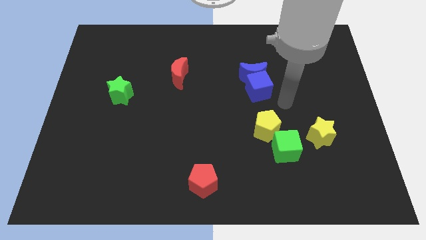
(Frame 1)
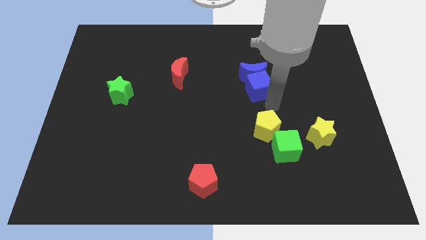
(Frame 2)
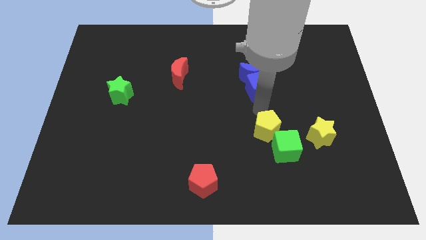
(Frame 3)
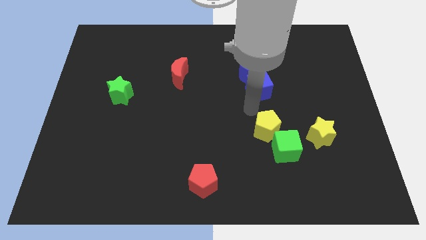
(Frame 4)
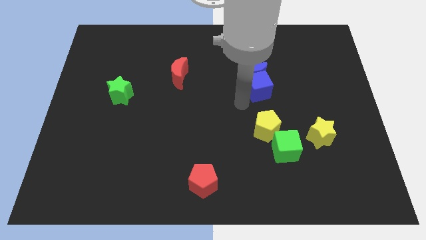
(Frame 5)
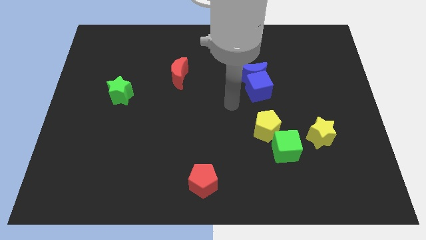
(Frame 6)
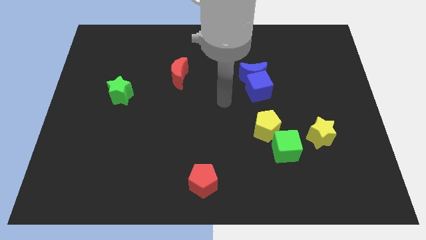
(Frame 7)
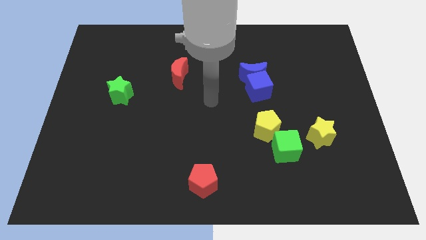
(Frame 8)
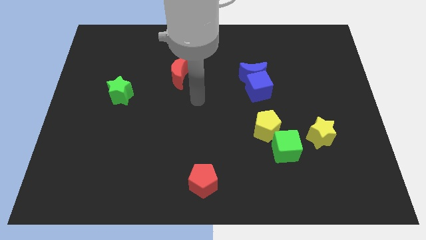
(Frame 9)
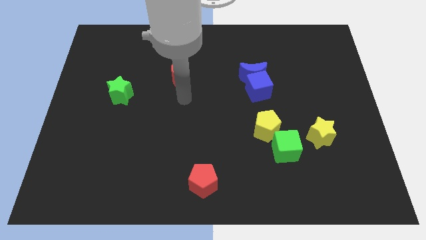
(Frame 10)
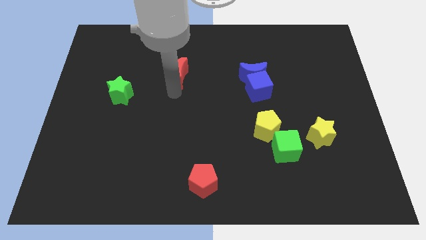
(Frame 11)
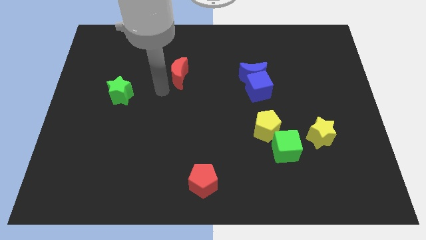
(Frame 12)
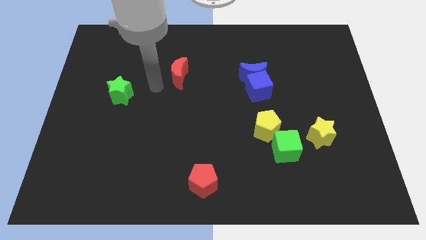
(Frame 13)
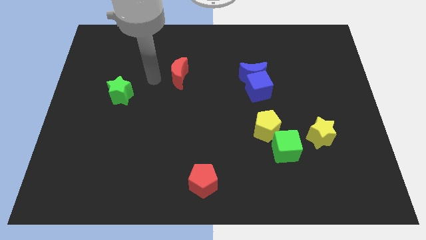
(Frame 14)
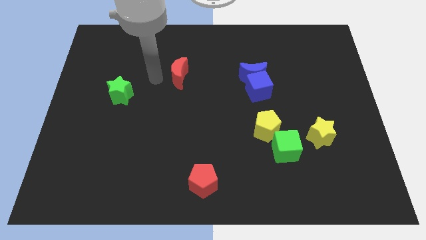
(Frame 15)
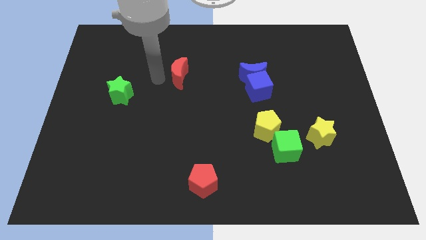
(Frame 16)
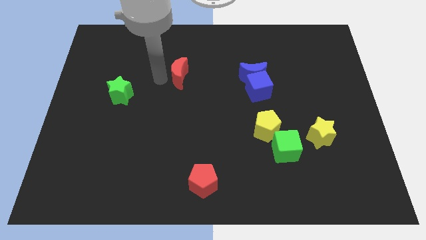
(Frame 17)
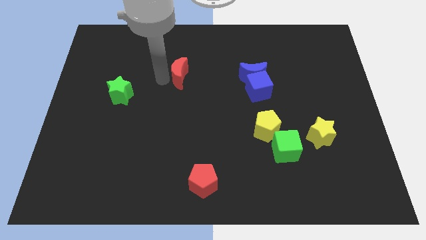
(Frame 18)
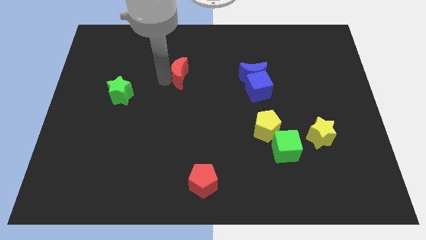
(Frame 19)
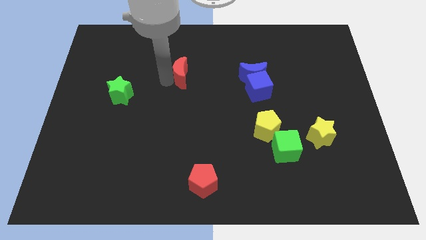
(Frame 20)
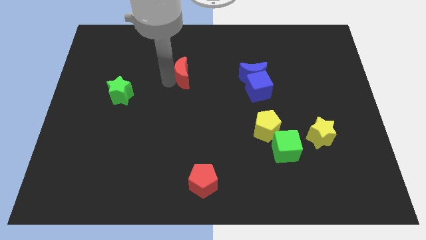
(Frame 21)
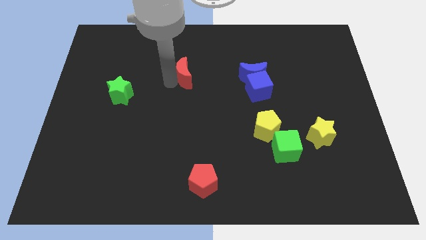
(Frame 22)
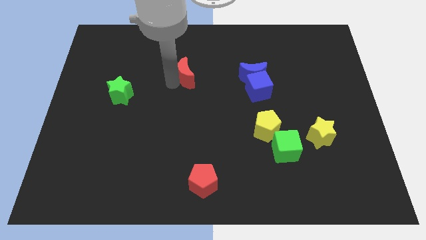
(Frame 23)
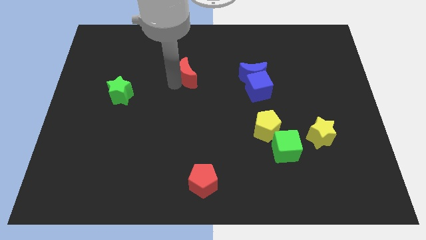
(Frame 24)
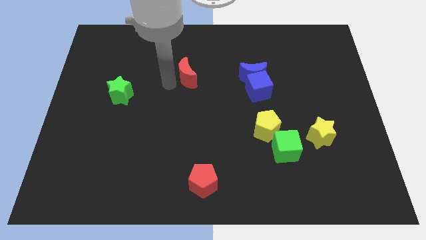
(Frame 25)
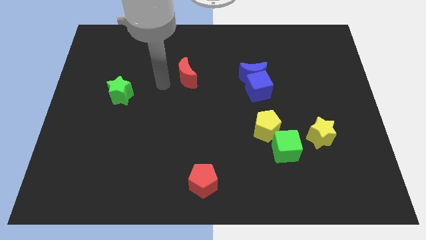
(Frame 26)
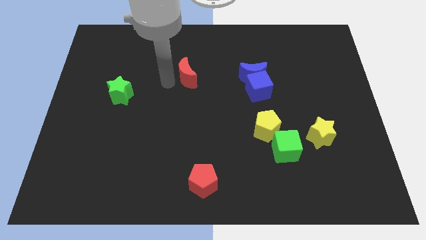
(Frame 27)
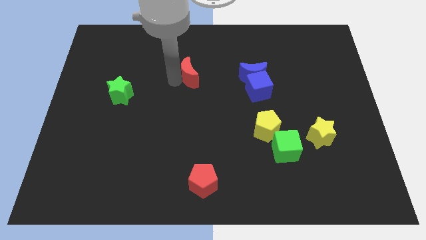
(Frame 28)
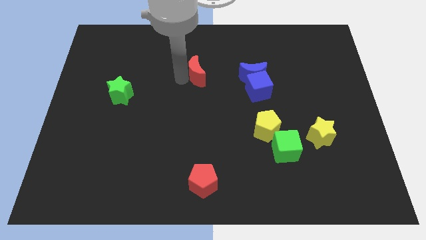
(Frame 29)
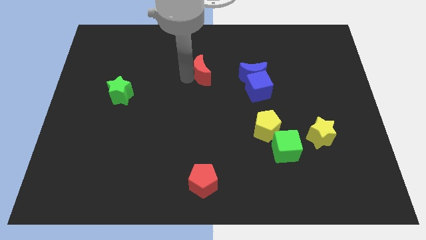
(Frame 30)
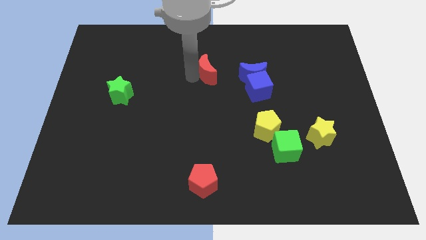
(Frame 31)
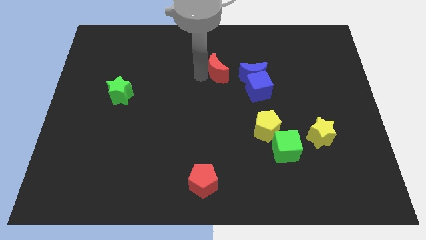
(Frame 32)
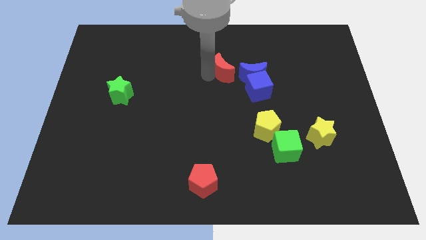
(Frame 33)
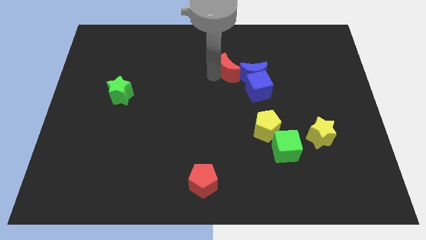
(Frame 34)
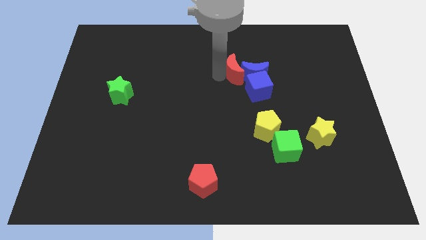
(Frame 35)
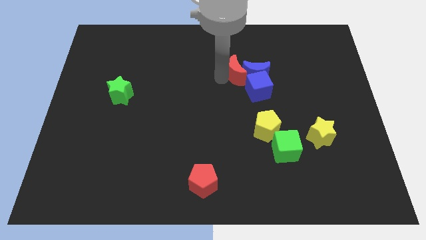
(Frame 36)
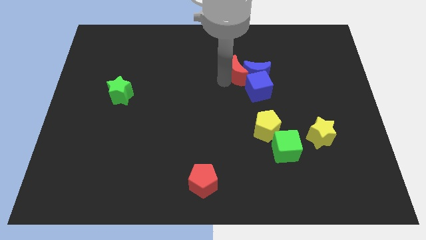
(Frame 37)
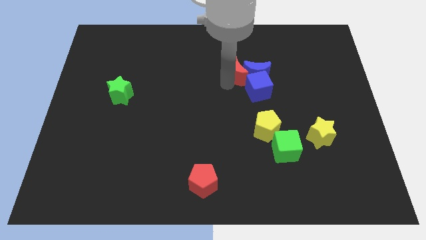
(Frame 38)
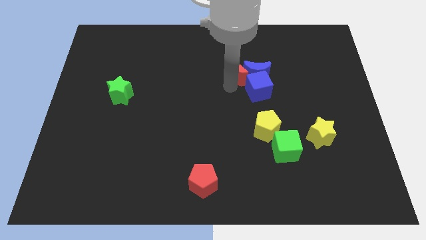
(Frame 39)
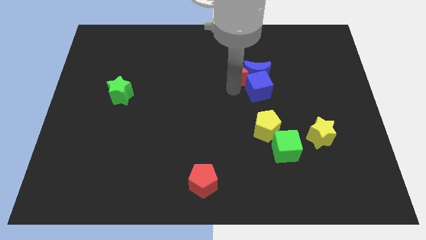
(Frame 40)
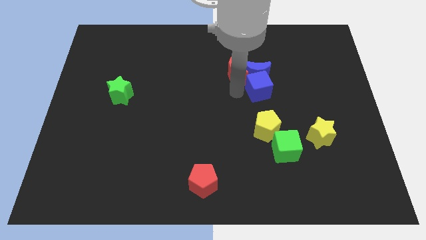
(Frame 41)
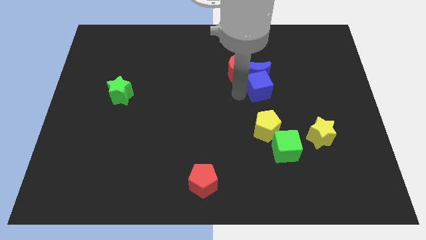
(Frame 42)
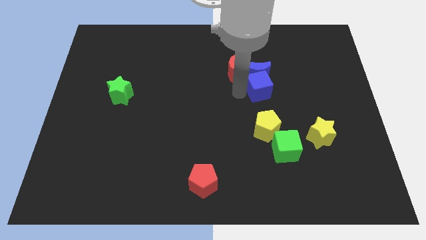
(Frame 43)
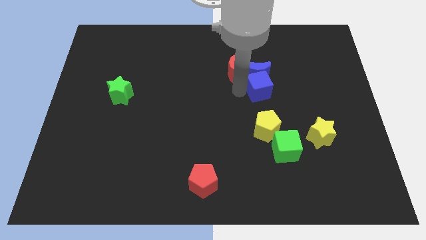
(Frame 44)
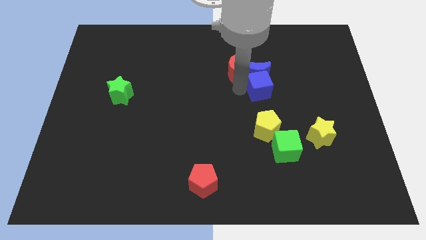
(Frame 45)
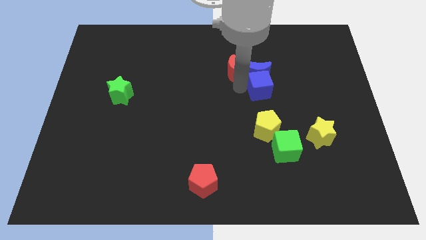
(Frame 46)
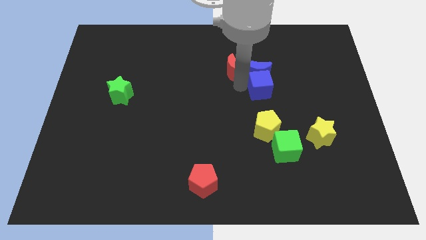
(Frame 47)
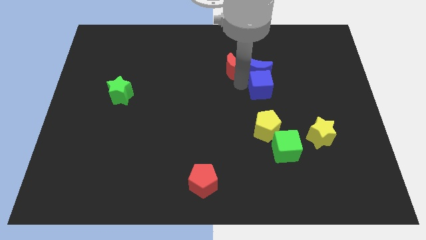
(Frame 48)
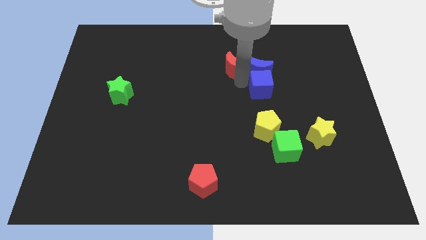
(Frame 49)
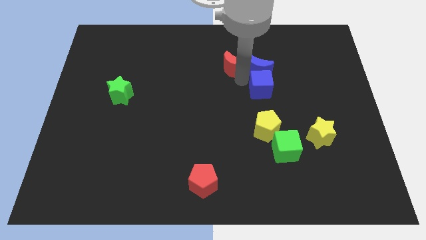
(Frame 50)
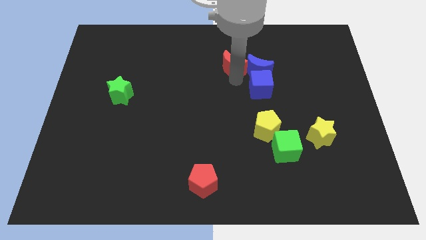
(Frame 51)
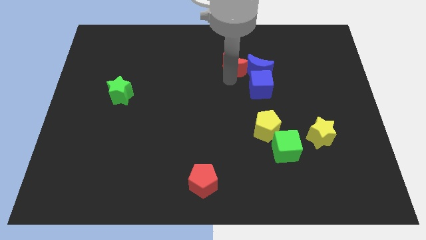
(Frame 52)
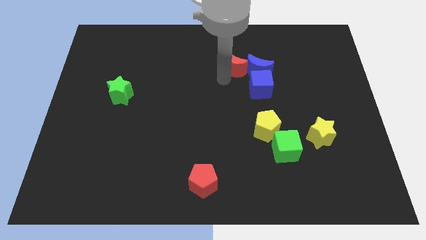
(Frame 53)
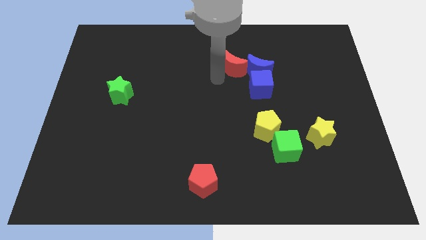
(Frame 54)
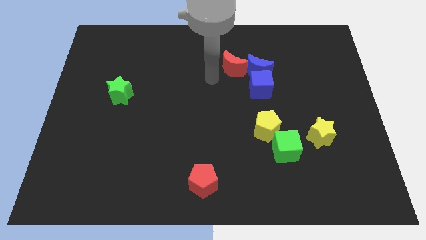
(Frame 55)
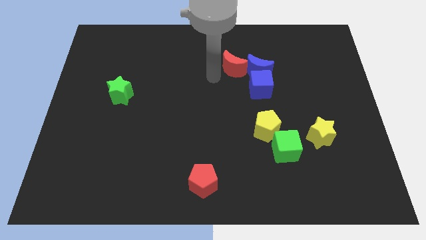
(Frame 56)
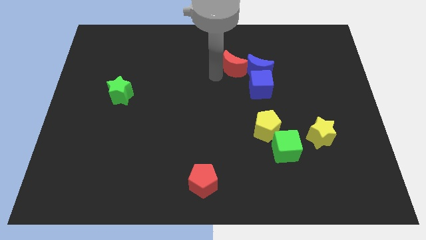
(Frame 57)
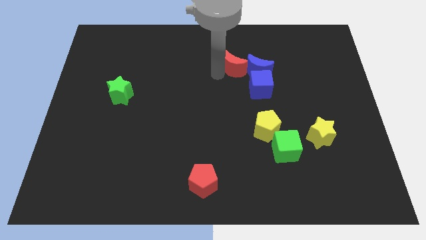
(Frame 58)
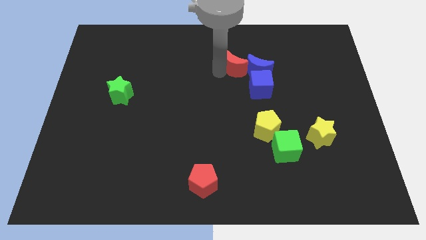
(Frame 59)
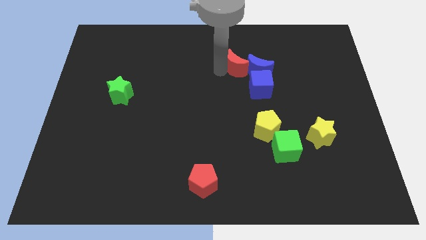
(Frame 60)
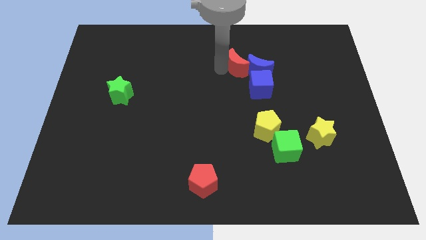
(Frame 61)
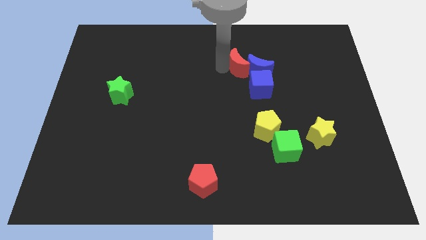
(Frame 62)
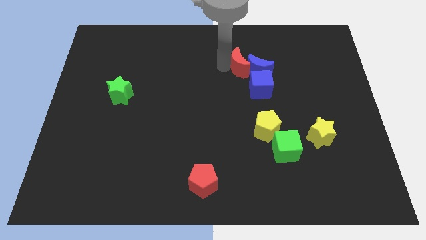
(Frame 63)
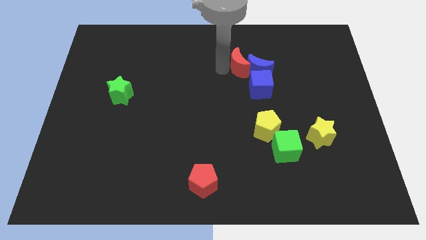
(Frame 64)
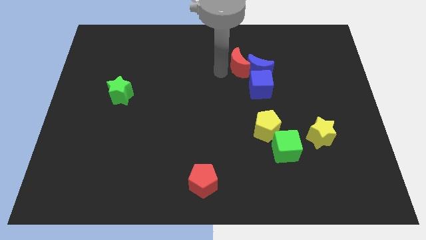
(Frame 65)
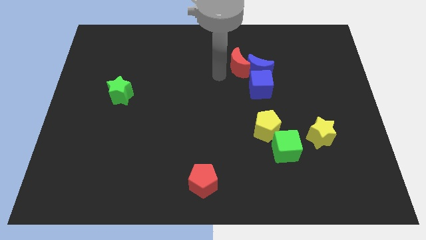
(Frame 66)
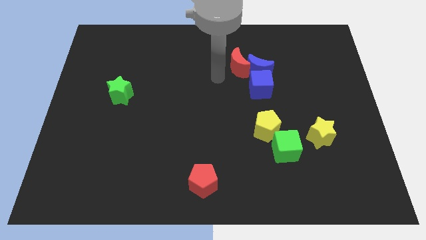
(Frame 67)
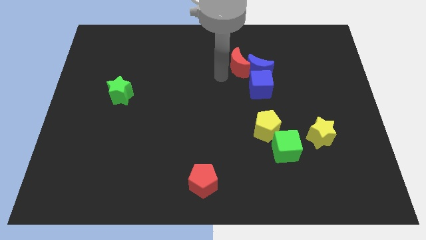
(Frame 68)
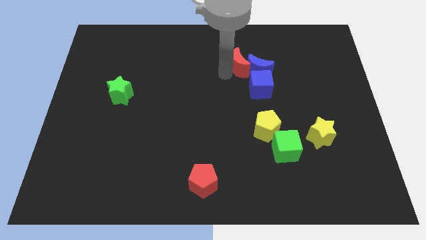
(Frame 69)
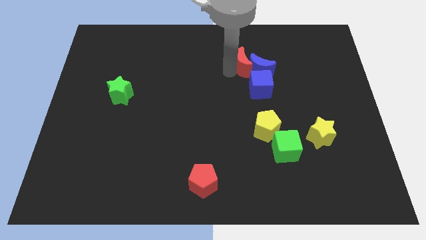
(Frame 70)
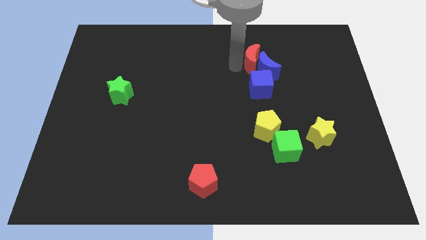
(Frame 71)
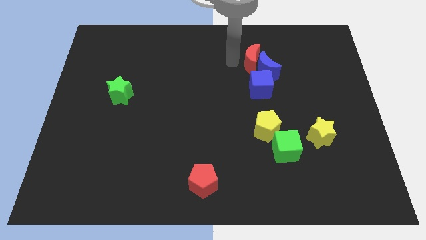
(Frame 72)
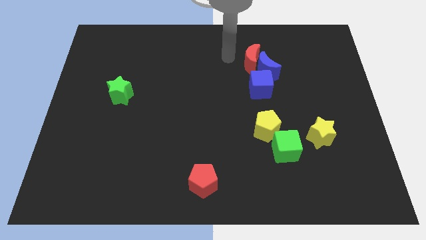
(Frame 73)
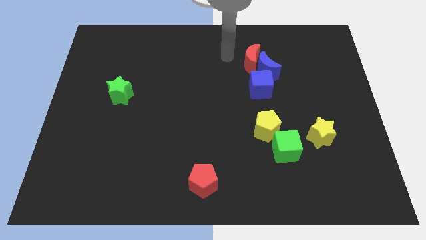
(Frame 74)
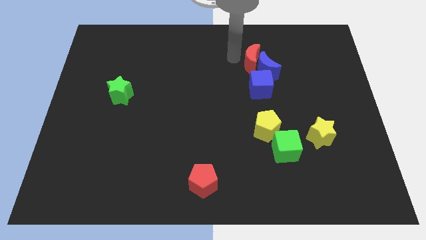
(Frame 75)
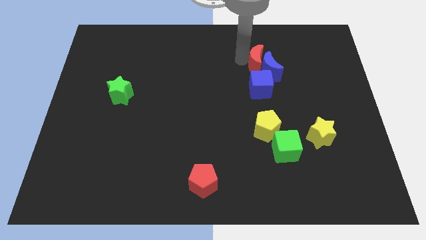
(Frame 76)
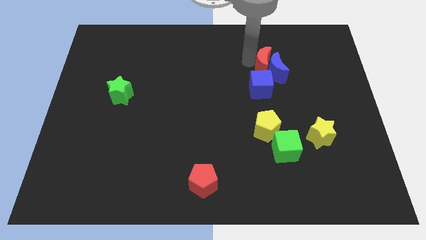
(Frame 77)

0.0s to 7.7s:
push the red moon right
